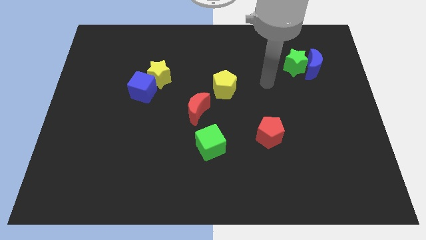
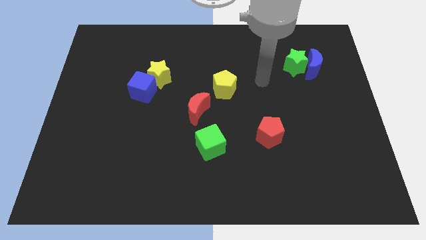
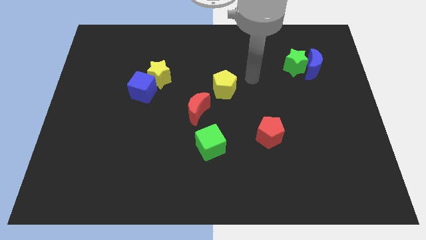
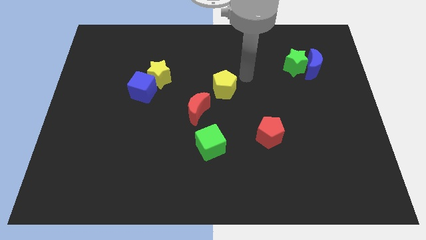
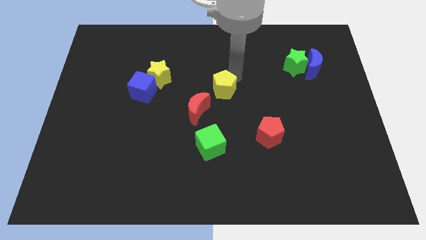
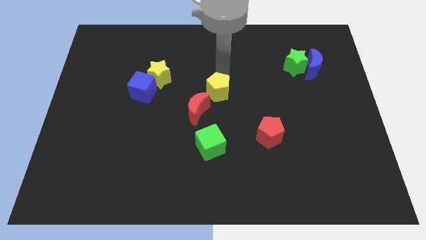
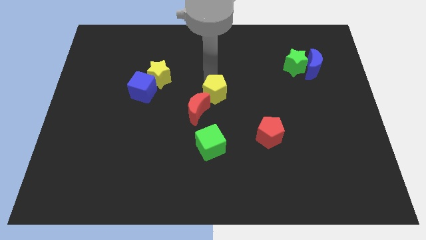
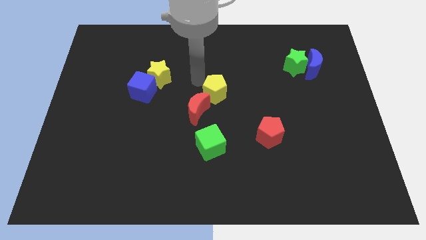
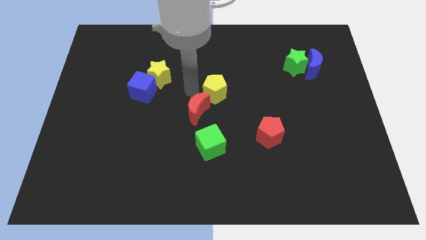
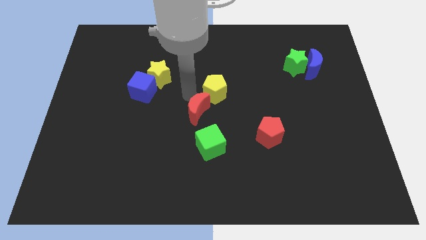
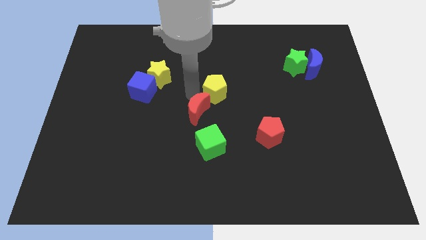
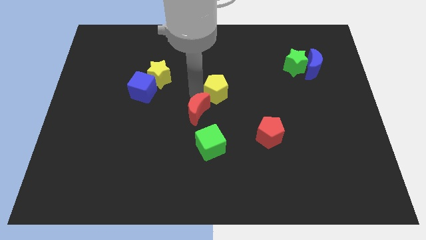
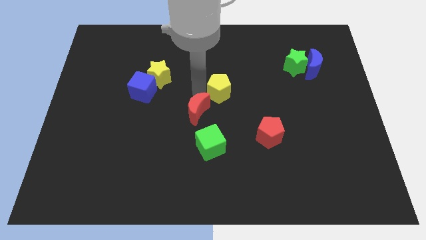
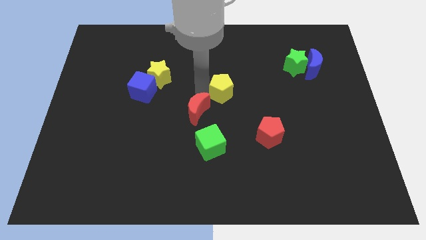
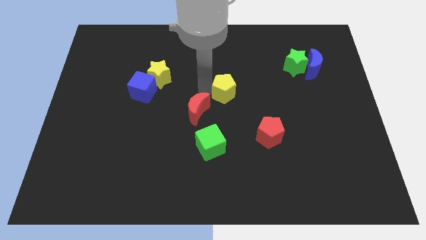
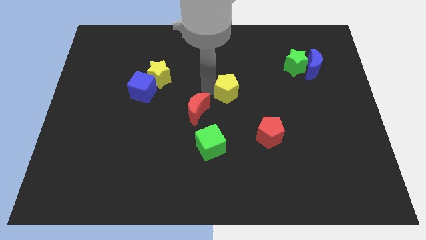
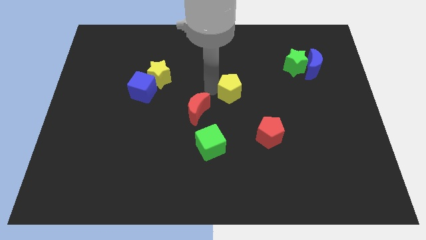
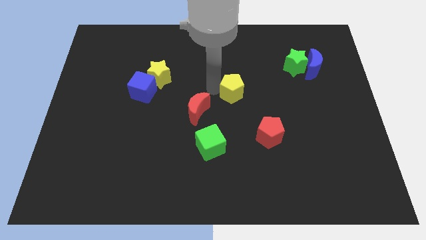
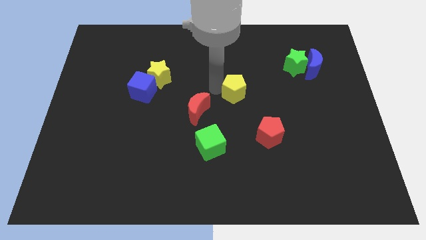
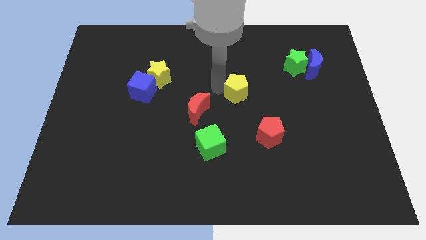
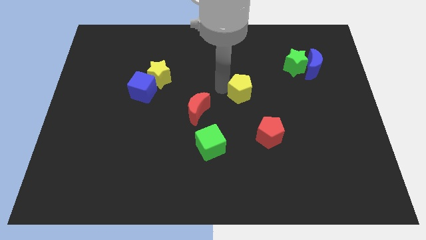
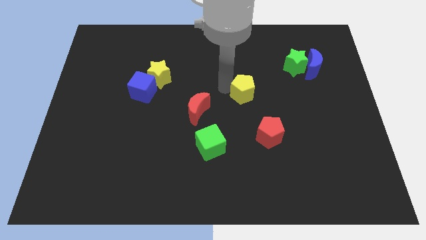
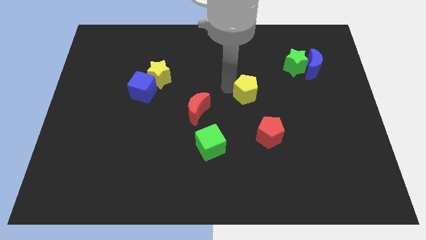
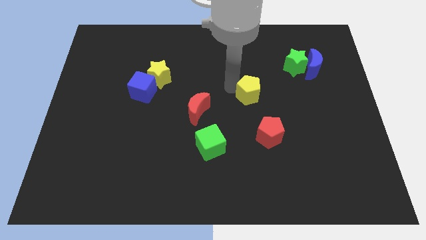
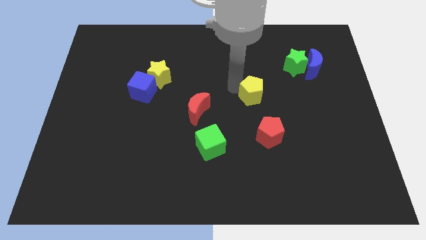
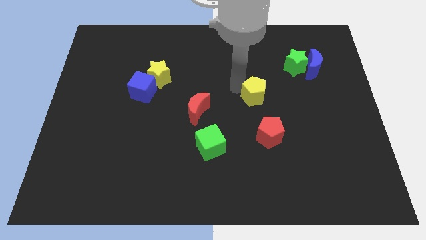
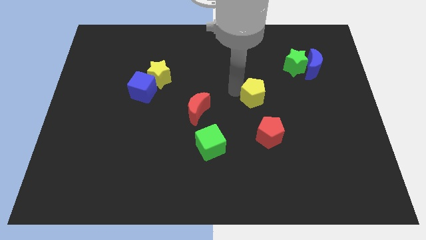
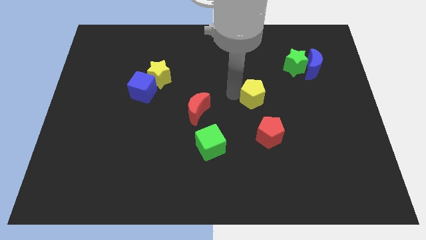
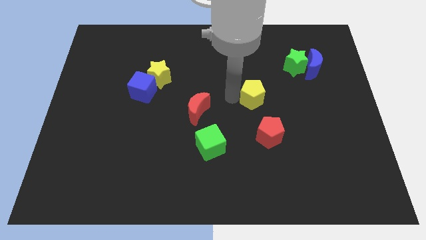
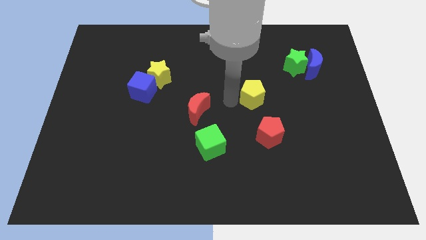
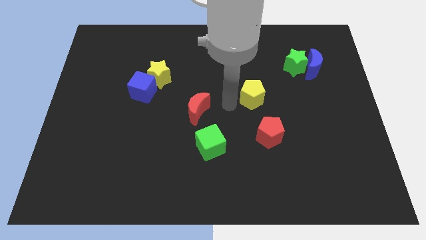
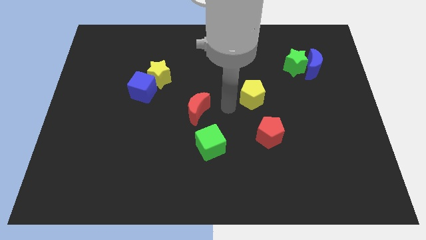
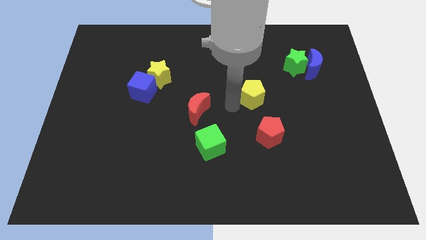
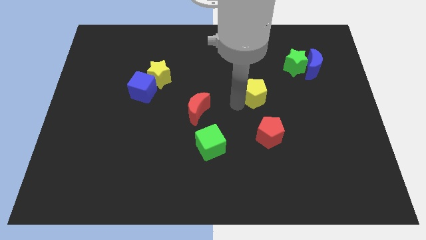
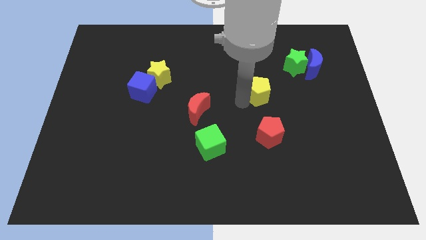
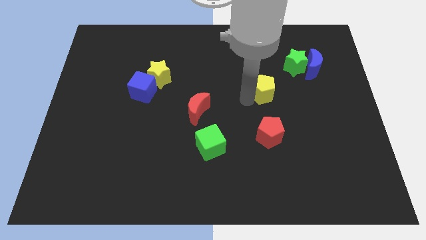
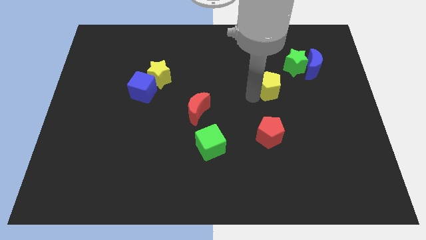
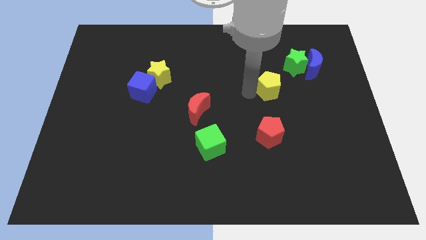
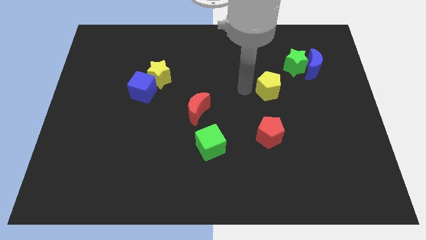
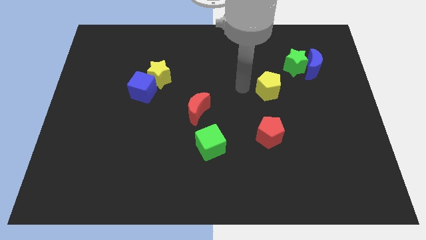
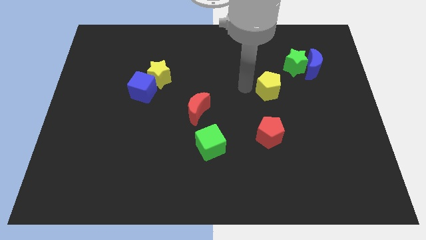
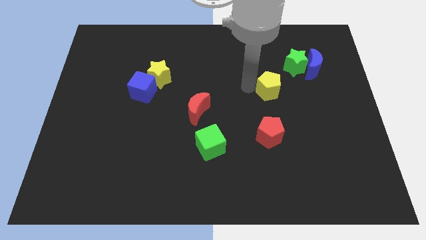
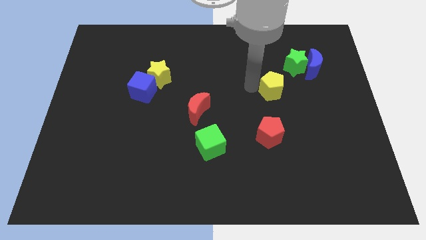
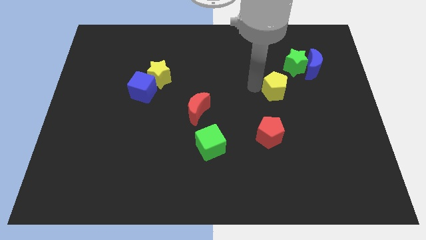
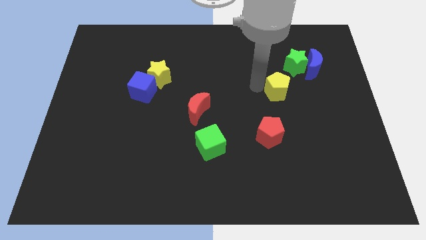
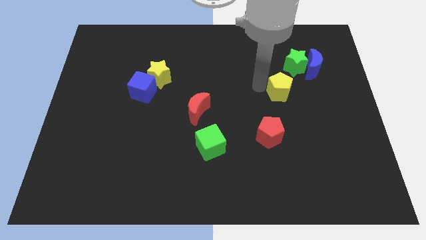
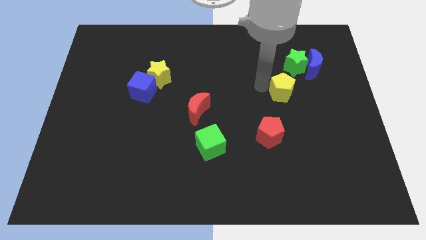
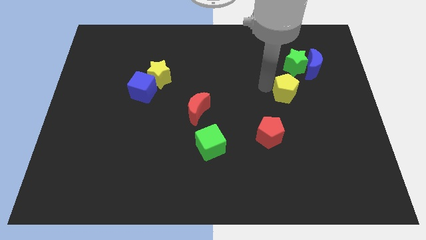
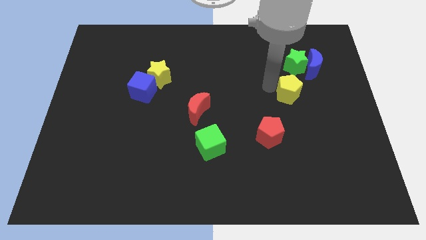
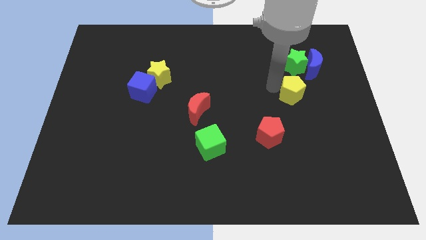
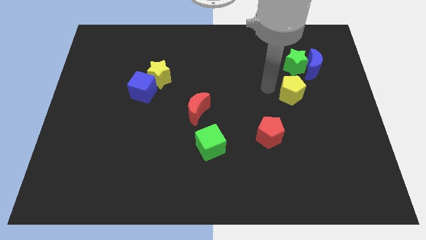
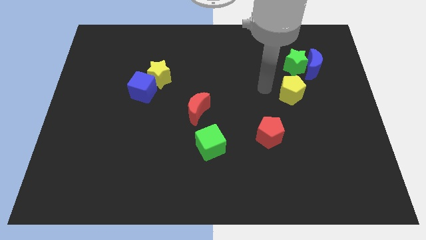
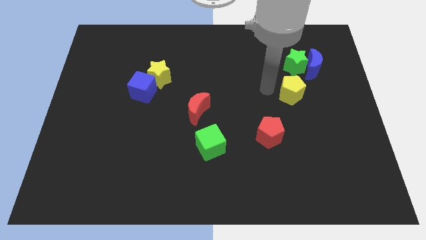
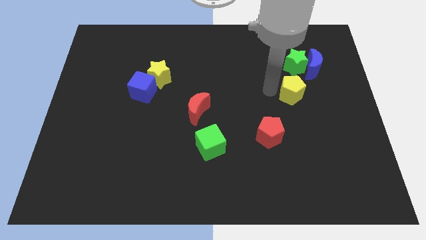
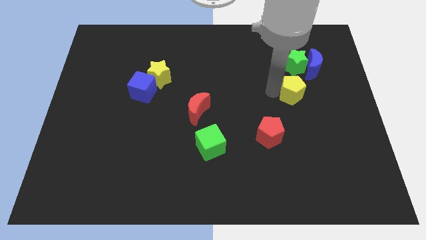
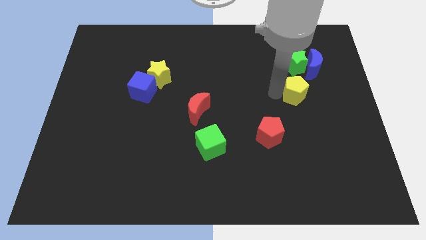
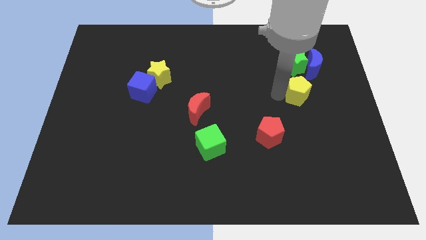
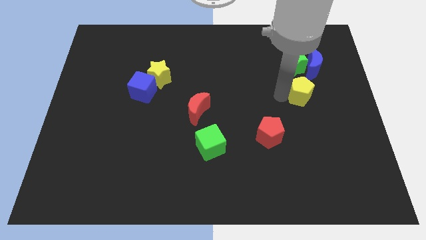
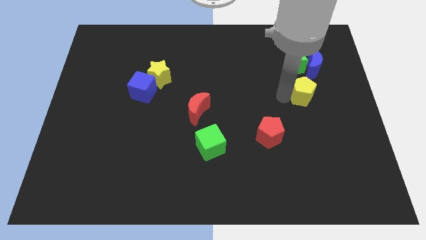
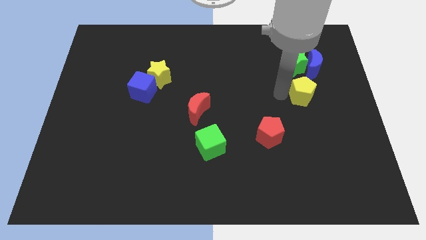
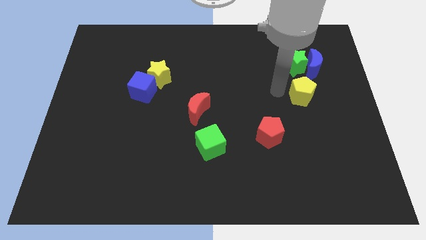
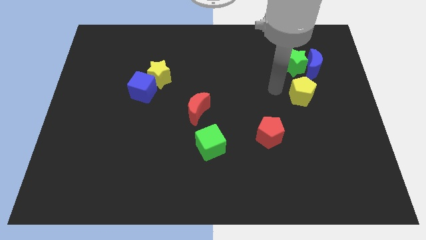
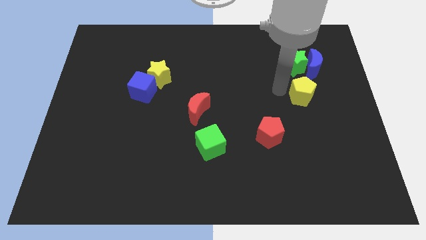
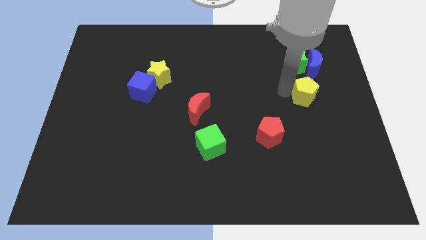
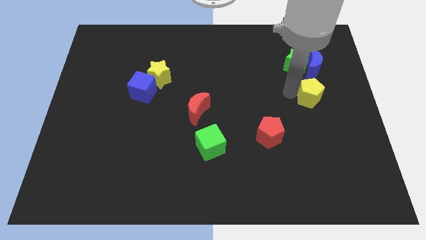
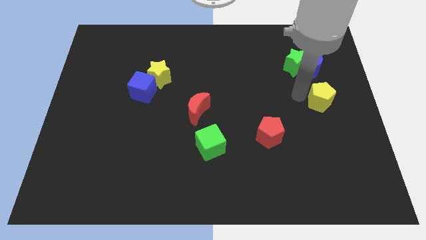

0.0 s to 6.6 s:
slide the yellow pentagon to the center right

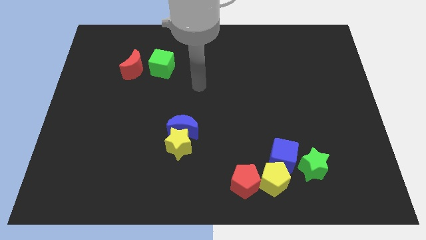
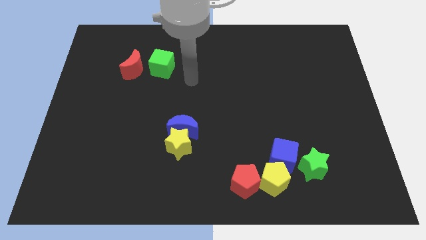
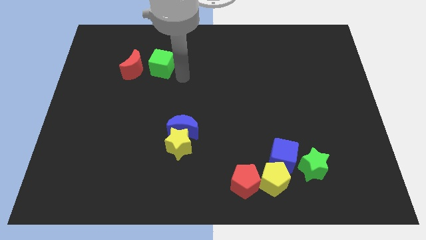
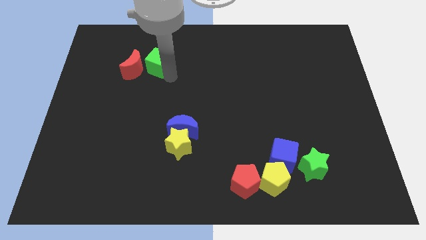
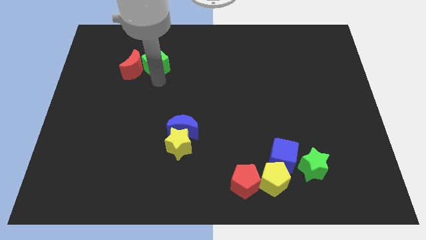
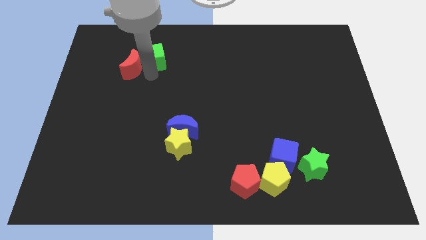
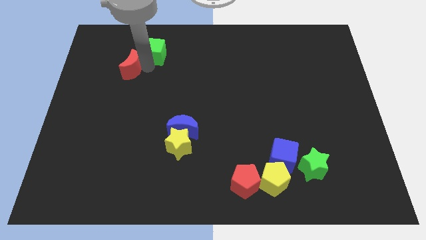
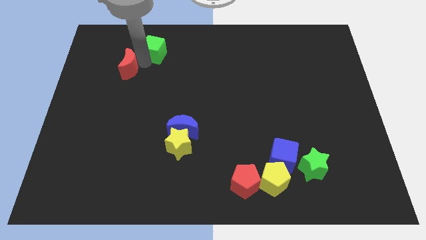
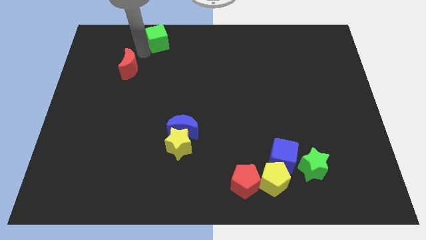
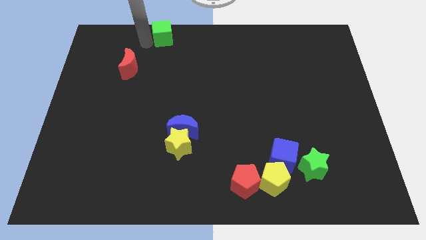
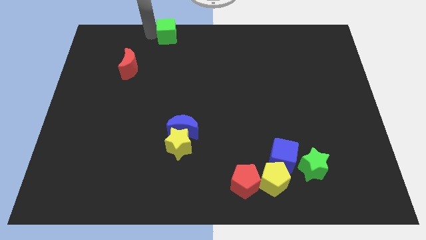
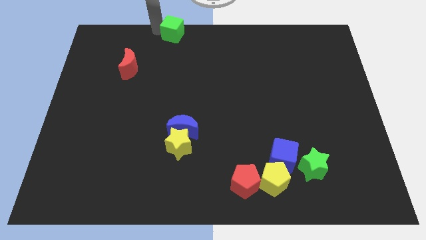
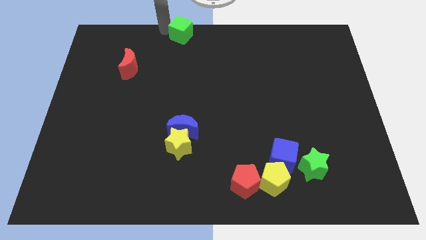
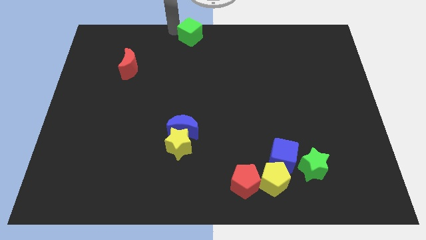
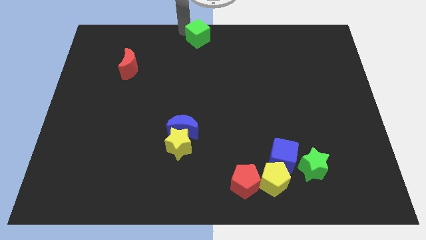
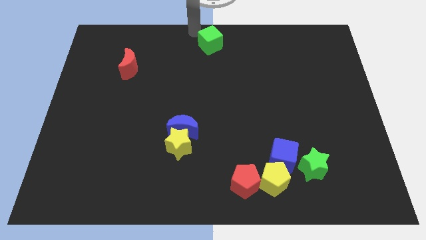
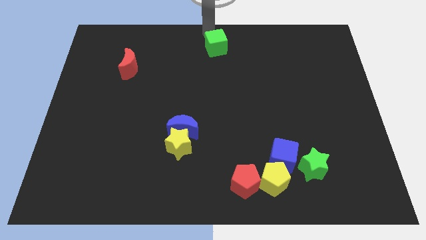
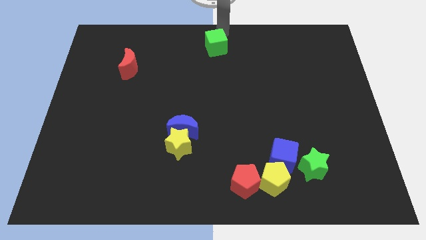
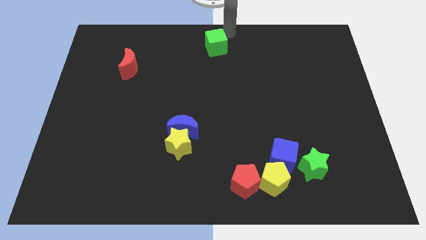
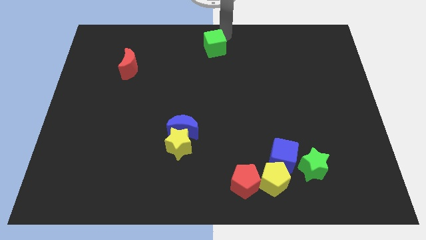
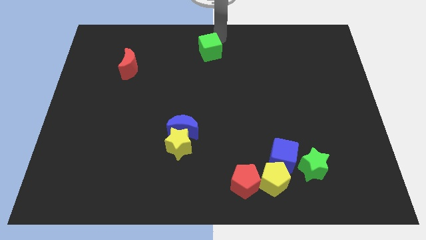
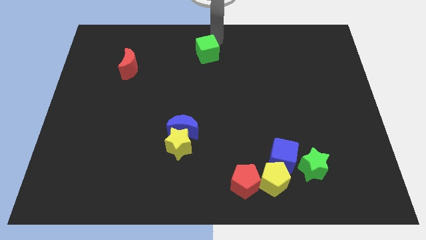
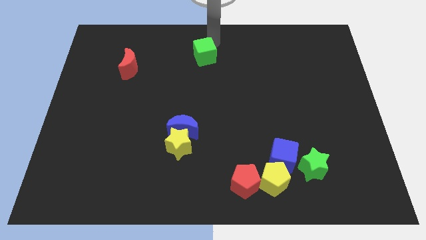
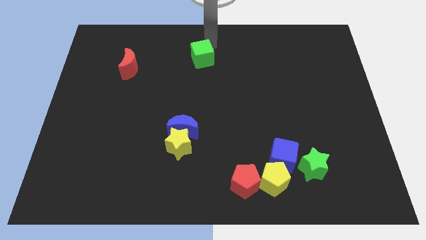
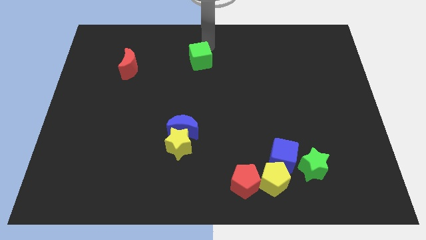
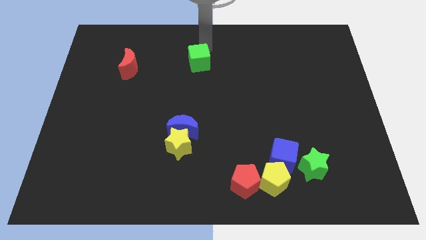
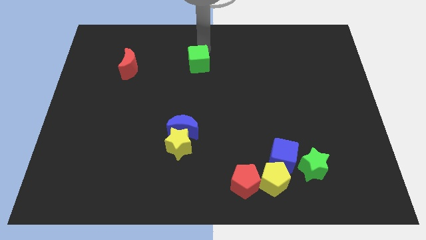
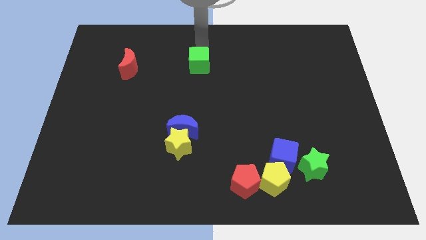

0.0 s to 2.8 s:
put the green cube to the center
